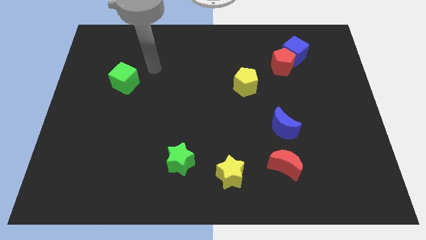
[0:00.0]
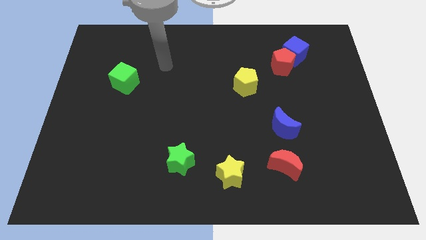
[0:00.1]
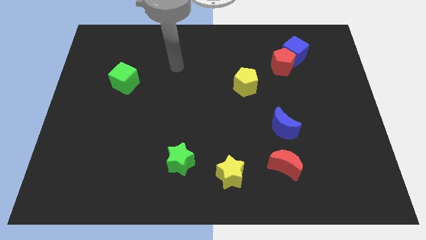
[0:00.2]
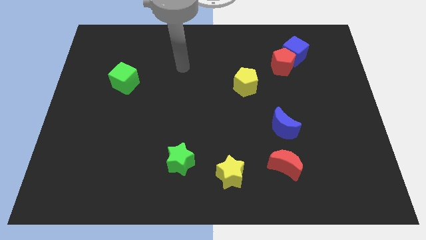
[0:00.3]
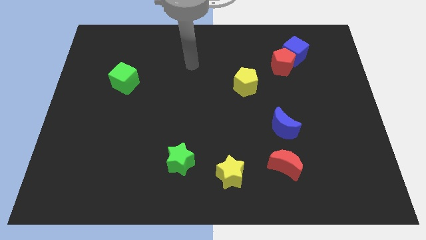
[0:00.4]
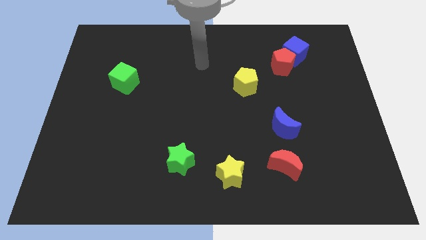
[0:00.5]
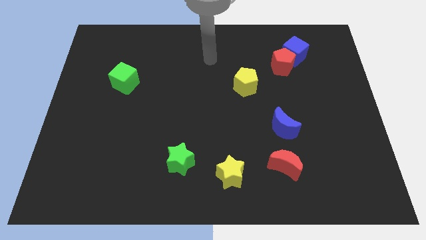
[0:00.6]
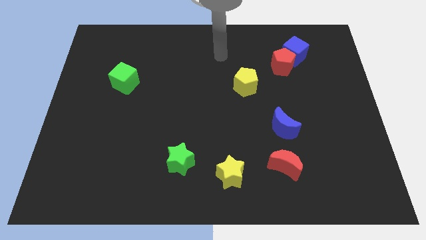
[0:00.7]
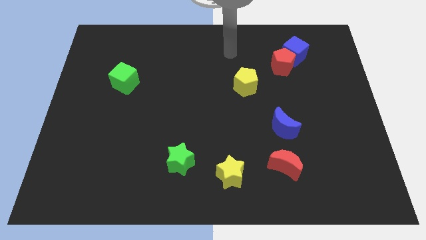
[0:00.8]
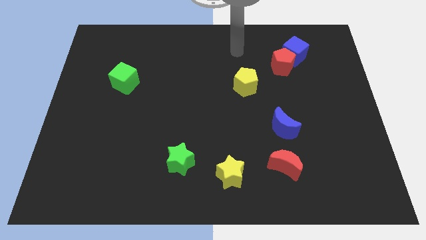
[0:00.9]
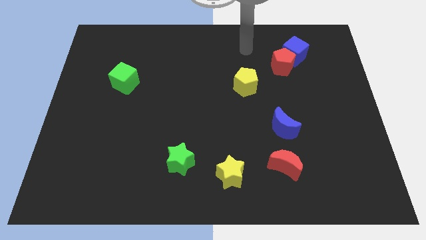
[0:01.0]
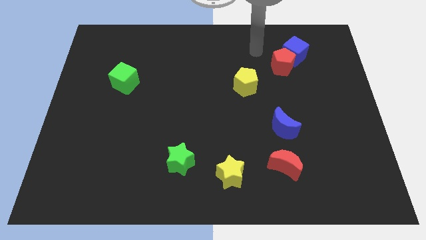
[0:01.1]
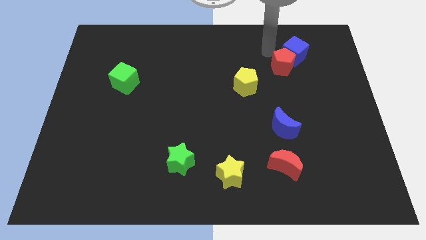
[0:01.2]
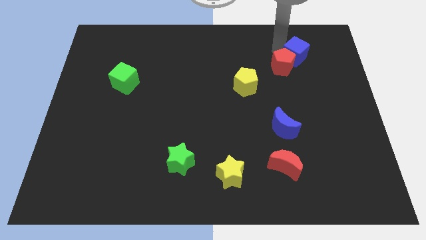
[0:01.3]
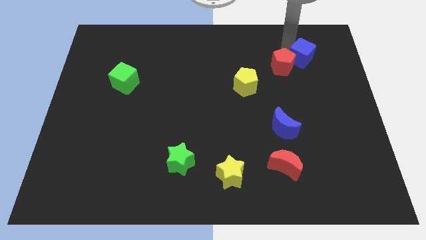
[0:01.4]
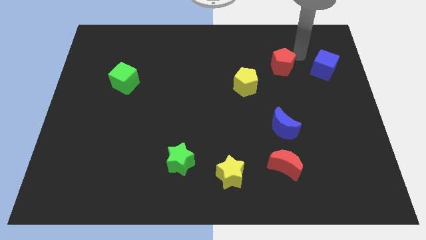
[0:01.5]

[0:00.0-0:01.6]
move the red pentagon away from the blue cube

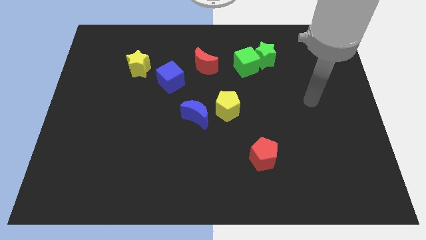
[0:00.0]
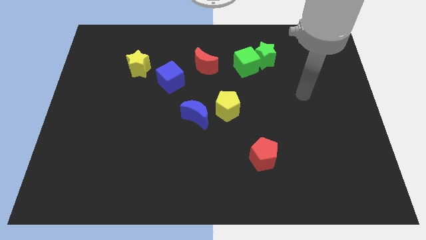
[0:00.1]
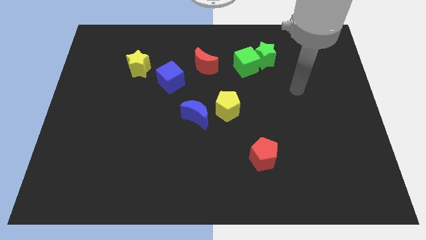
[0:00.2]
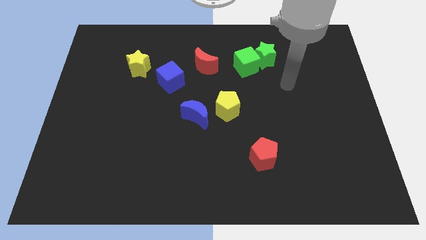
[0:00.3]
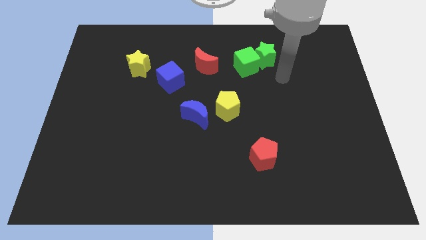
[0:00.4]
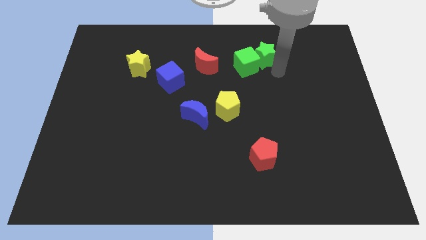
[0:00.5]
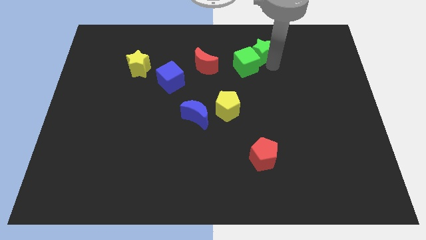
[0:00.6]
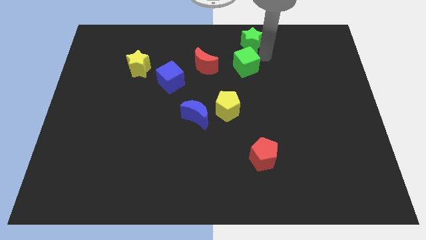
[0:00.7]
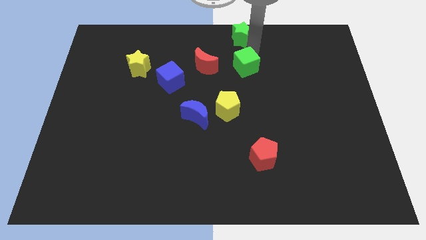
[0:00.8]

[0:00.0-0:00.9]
separate the green cube from the green star

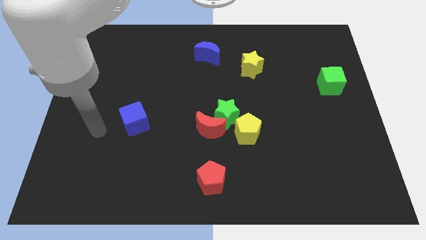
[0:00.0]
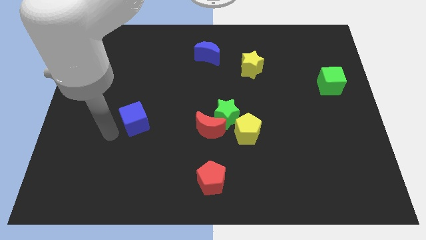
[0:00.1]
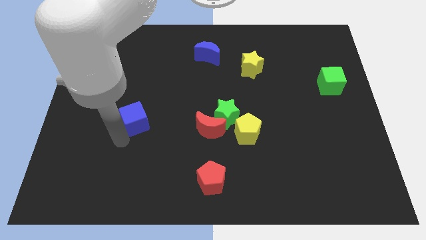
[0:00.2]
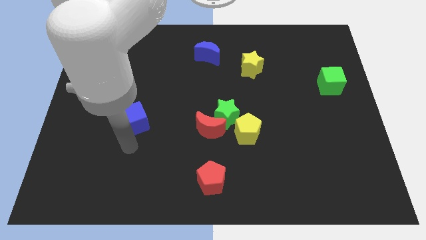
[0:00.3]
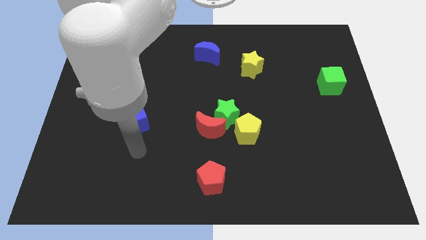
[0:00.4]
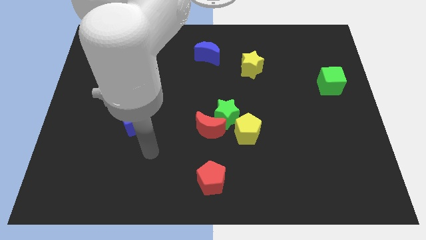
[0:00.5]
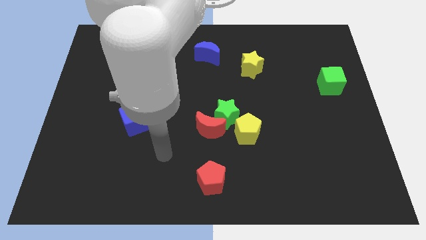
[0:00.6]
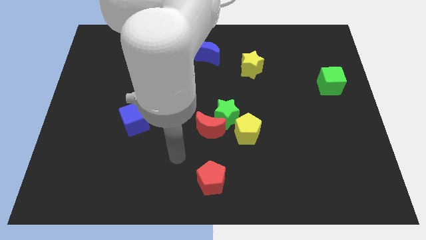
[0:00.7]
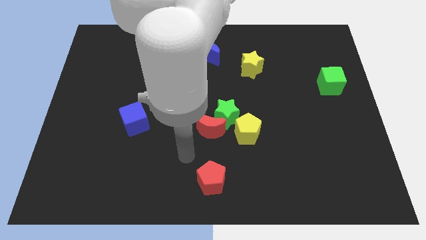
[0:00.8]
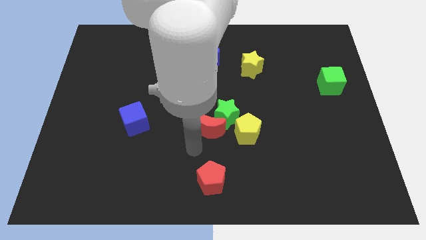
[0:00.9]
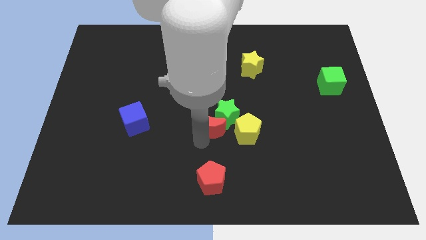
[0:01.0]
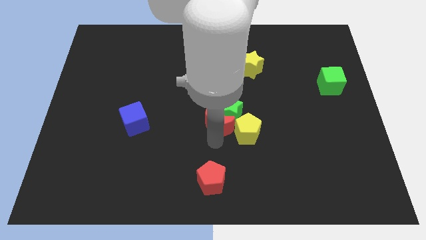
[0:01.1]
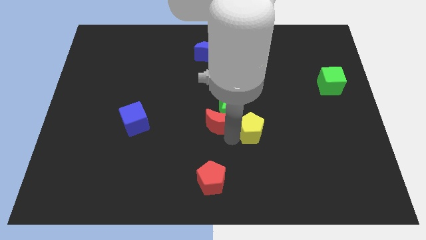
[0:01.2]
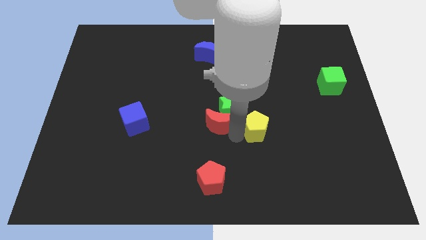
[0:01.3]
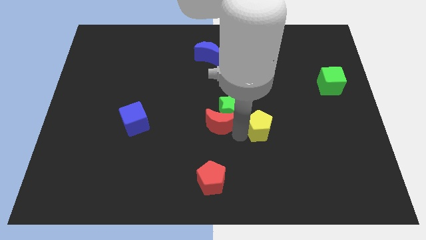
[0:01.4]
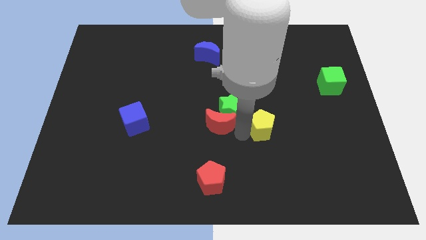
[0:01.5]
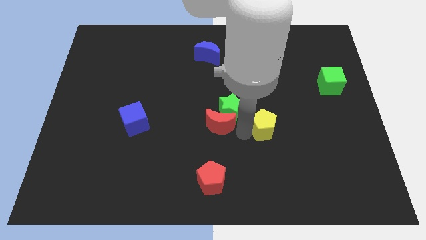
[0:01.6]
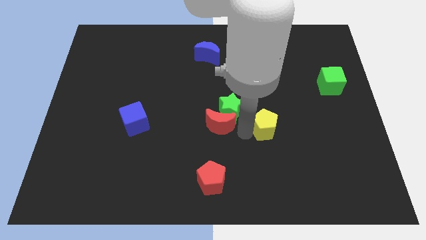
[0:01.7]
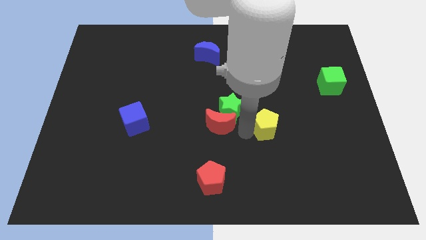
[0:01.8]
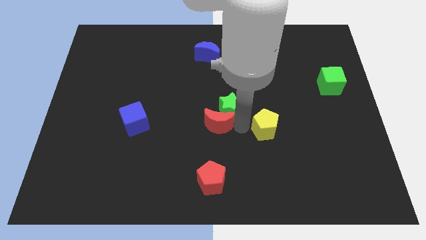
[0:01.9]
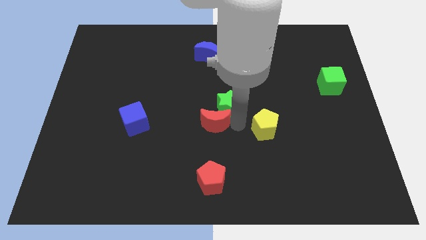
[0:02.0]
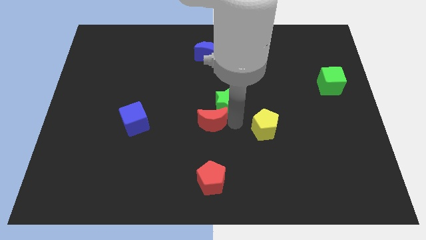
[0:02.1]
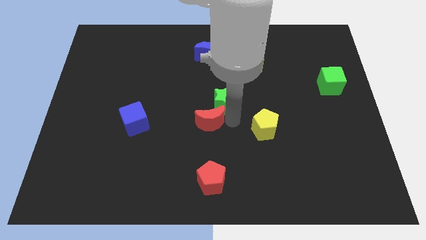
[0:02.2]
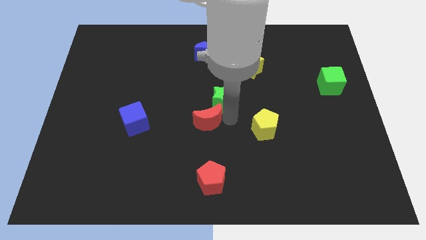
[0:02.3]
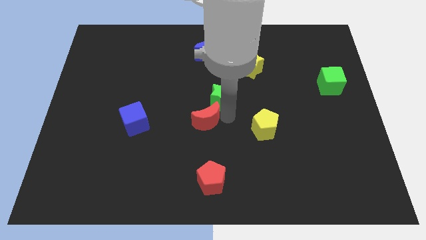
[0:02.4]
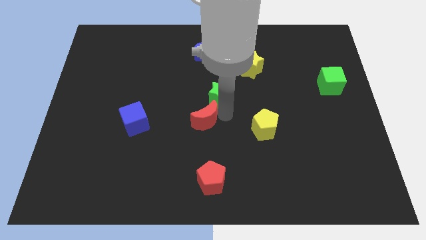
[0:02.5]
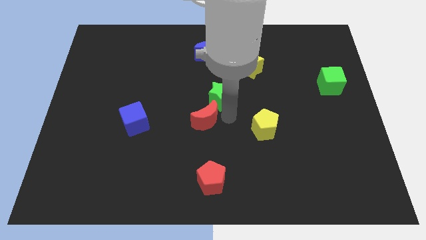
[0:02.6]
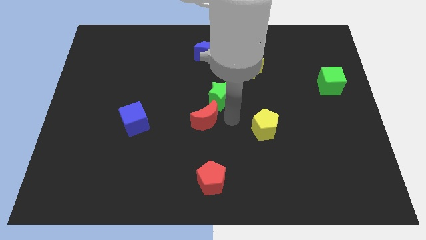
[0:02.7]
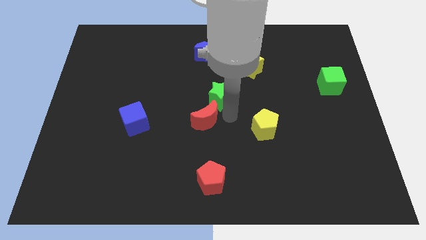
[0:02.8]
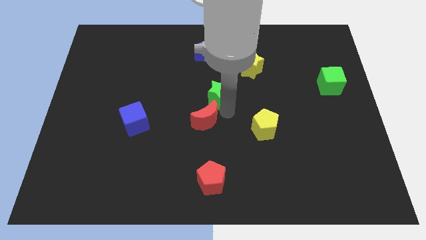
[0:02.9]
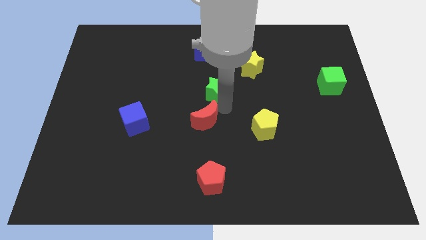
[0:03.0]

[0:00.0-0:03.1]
separate the green star from the red moon and yellow pentagon

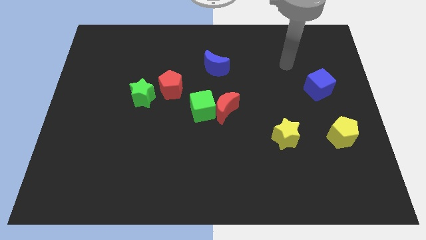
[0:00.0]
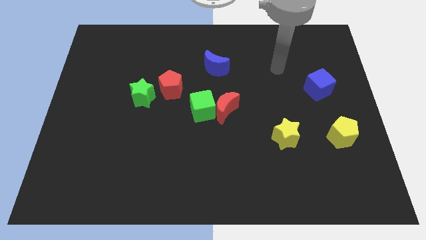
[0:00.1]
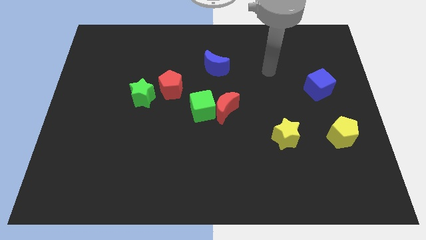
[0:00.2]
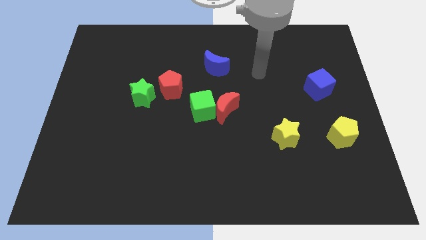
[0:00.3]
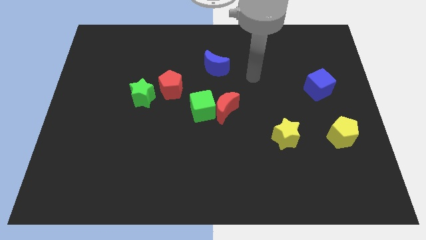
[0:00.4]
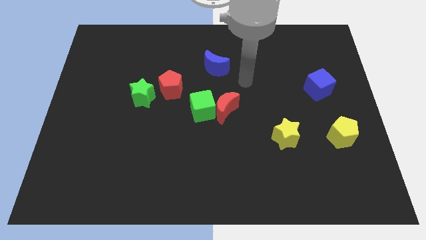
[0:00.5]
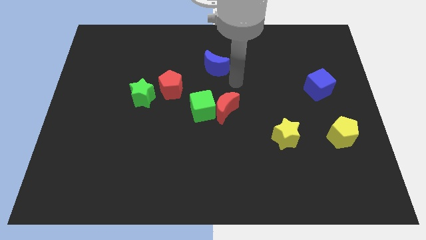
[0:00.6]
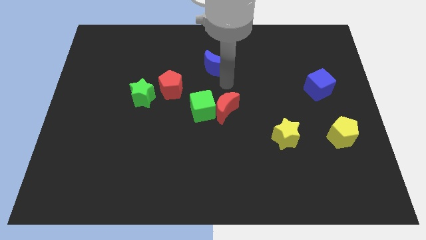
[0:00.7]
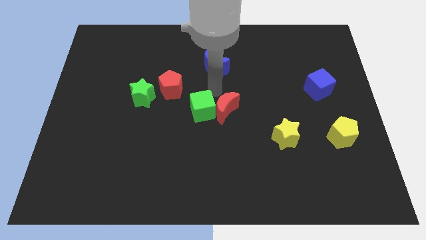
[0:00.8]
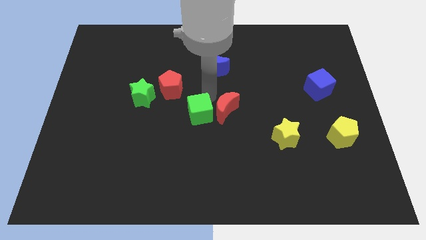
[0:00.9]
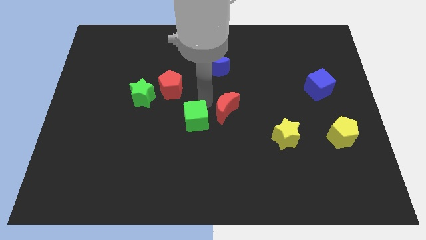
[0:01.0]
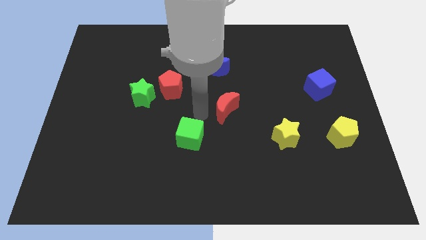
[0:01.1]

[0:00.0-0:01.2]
move the red moon away from the green cube

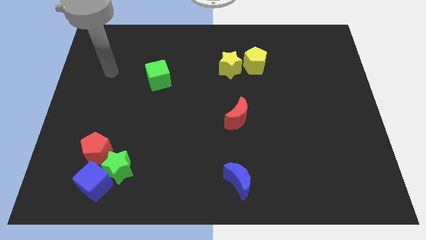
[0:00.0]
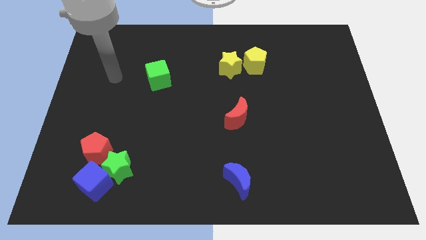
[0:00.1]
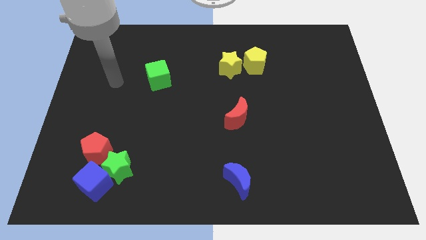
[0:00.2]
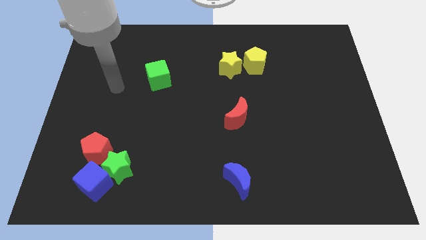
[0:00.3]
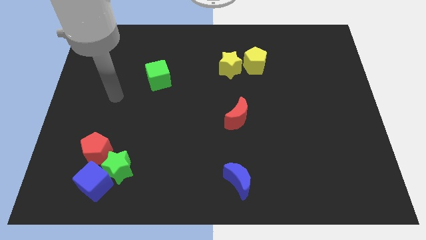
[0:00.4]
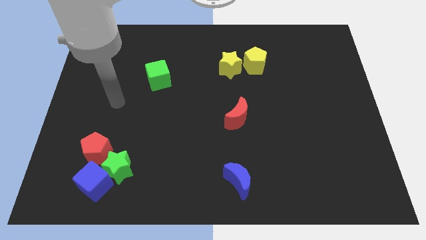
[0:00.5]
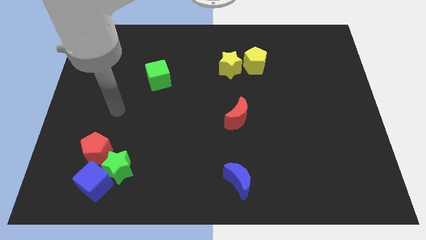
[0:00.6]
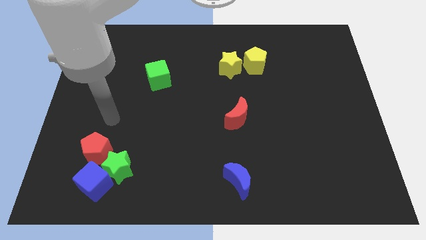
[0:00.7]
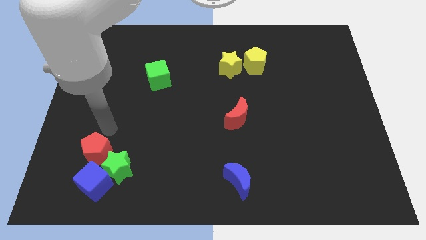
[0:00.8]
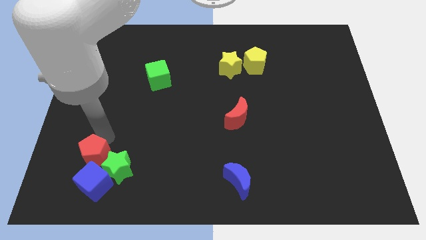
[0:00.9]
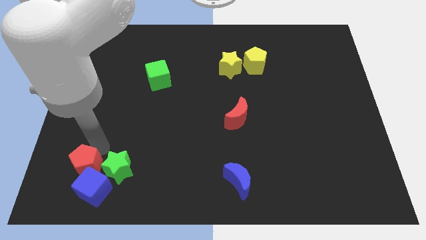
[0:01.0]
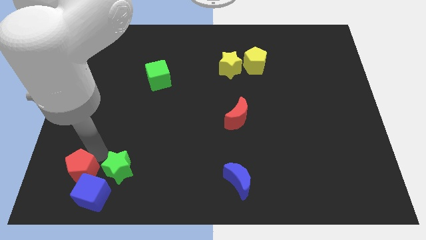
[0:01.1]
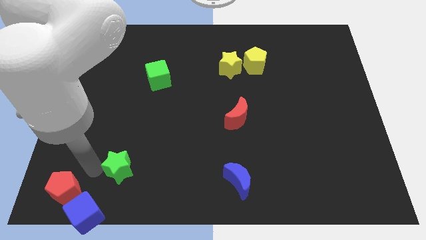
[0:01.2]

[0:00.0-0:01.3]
pull the green star apart from the blue cube and red pentagon

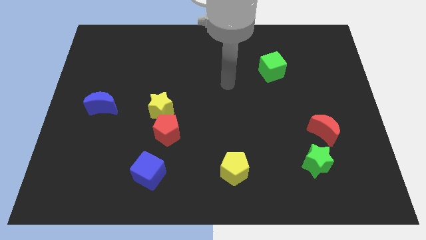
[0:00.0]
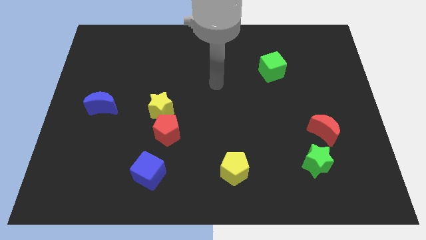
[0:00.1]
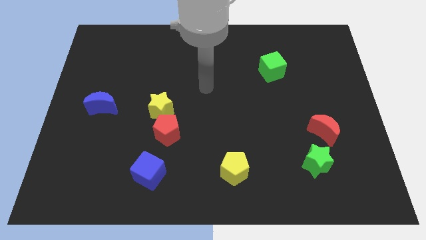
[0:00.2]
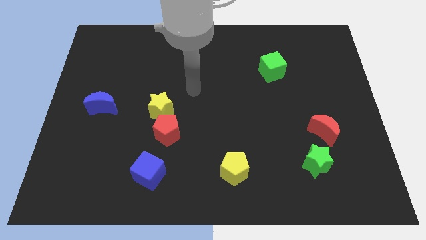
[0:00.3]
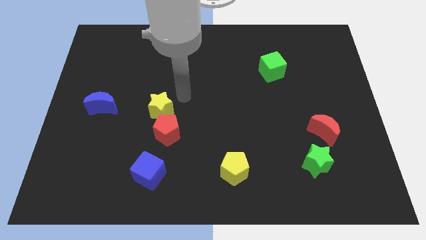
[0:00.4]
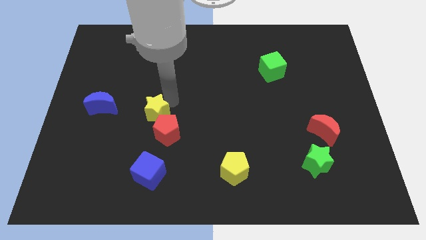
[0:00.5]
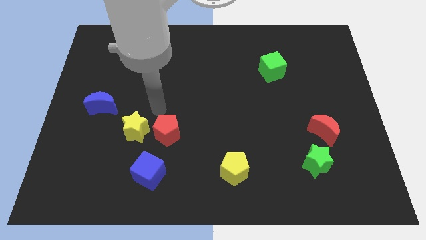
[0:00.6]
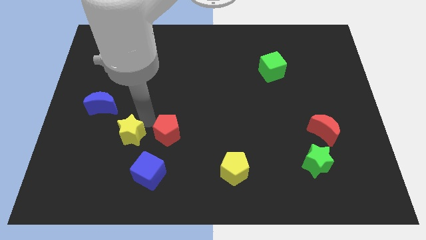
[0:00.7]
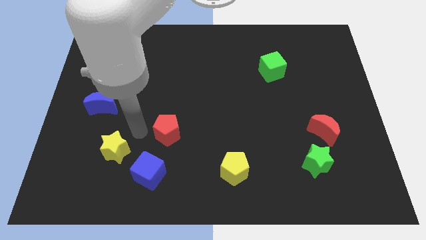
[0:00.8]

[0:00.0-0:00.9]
pull the red pentagon apart from the yellow star

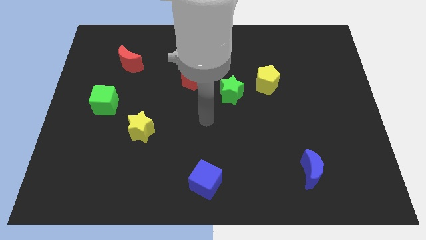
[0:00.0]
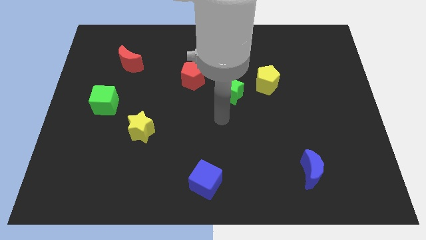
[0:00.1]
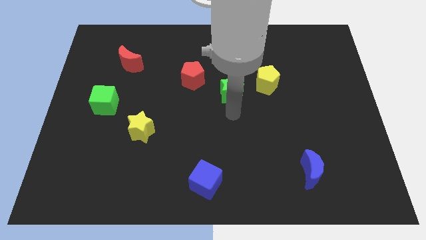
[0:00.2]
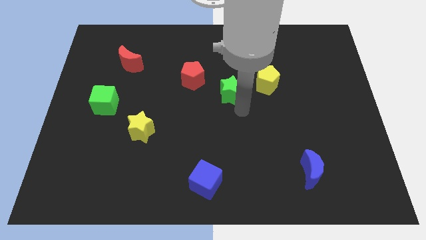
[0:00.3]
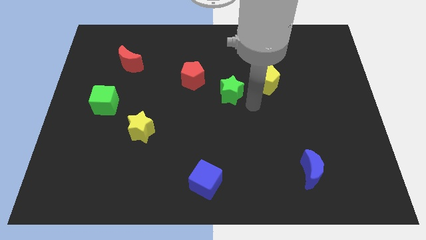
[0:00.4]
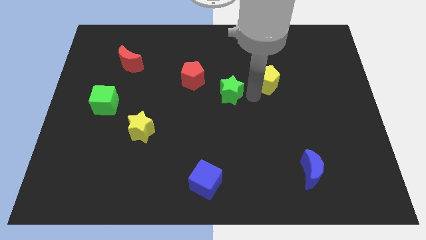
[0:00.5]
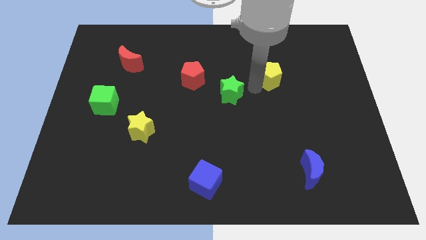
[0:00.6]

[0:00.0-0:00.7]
pull the green star apart from the yellow pentagon
